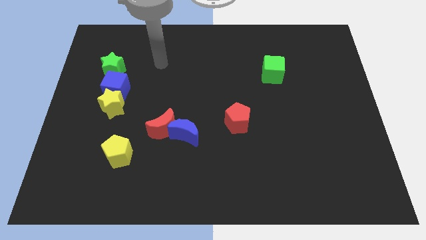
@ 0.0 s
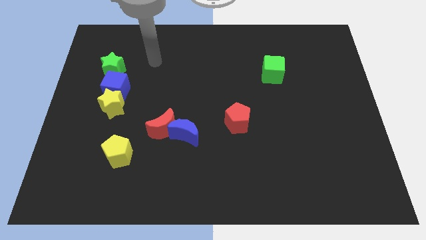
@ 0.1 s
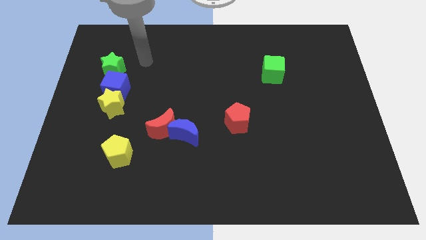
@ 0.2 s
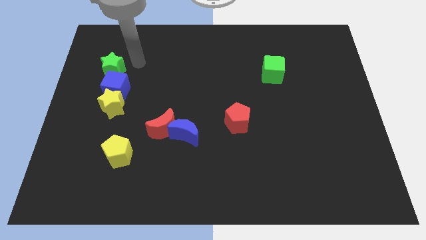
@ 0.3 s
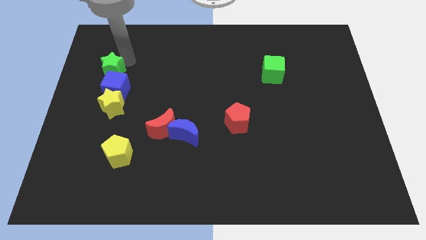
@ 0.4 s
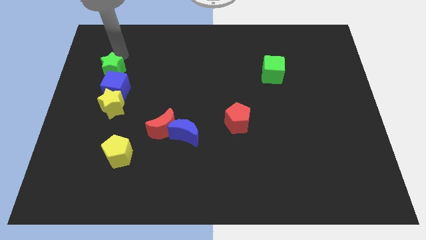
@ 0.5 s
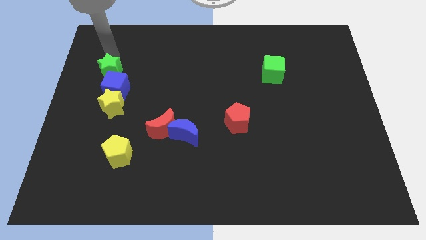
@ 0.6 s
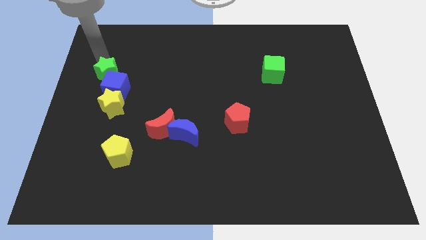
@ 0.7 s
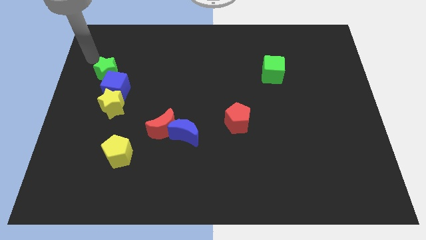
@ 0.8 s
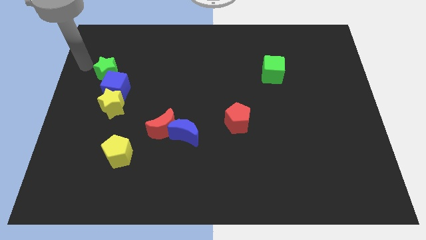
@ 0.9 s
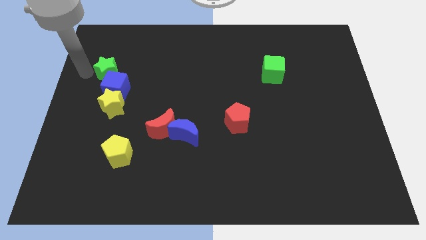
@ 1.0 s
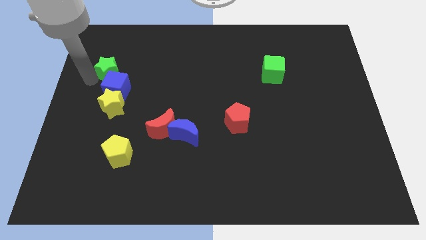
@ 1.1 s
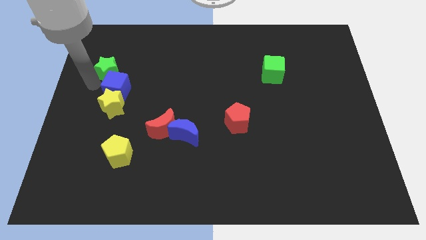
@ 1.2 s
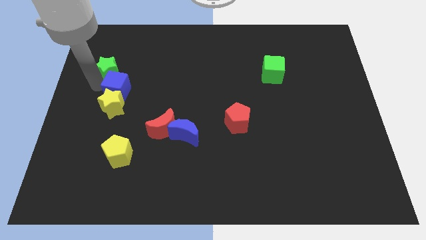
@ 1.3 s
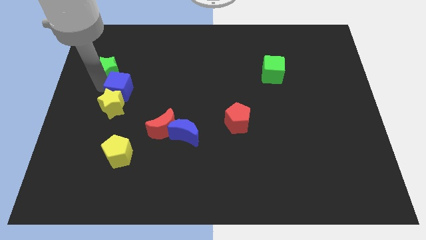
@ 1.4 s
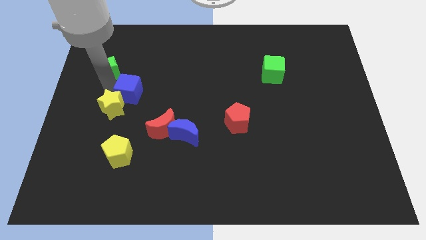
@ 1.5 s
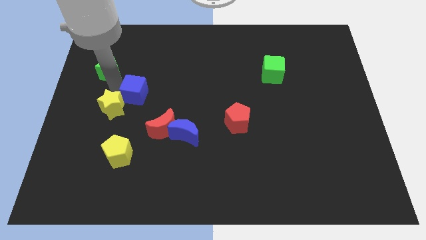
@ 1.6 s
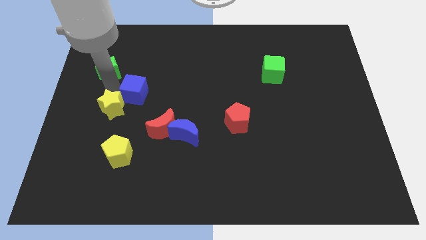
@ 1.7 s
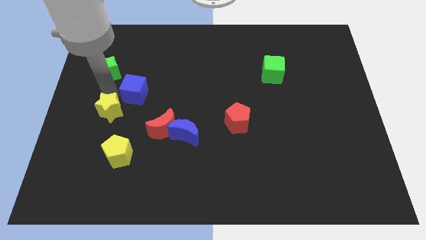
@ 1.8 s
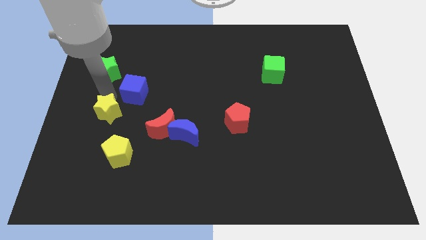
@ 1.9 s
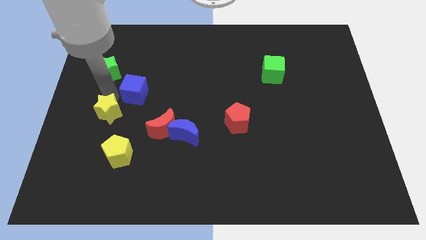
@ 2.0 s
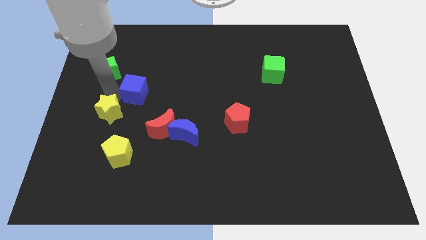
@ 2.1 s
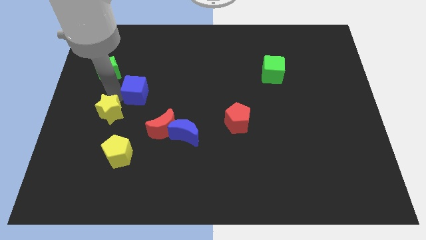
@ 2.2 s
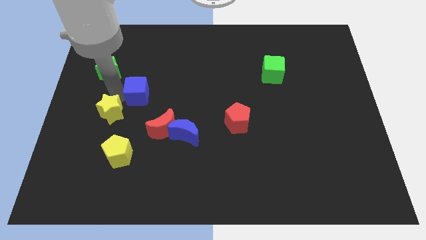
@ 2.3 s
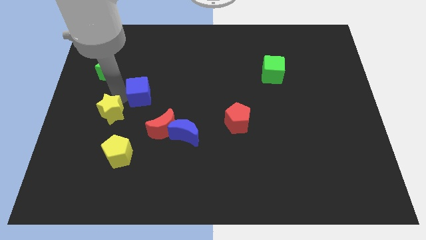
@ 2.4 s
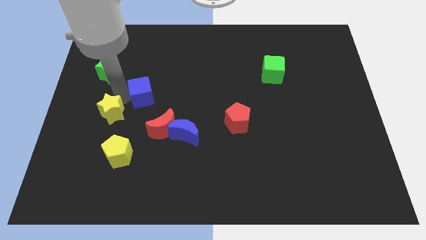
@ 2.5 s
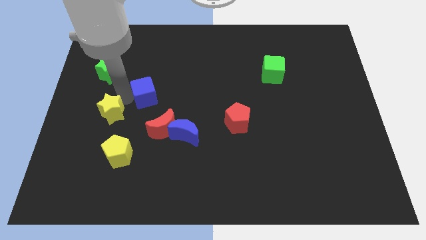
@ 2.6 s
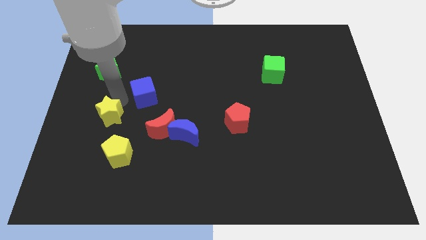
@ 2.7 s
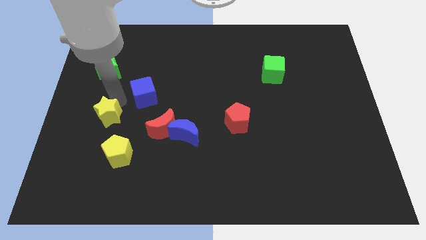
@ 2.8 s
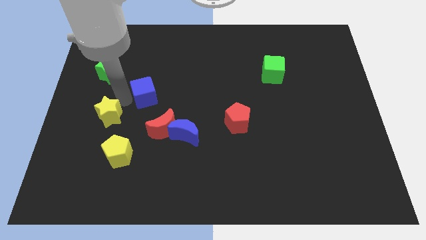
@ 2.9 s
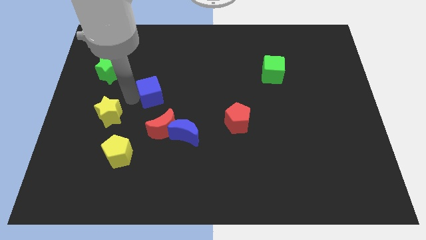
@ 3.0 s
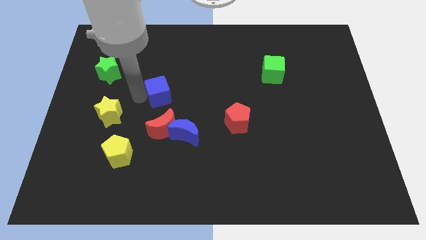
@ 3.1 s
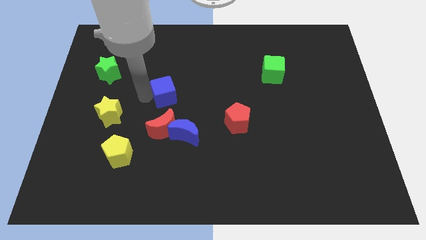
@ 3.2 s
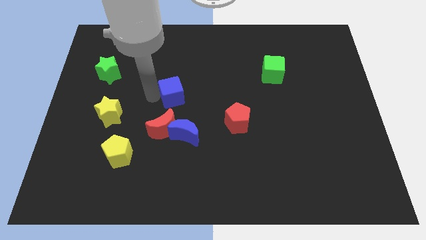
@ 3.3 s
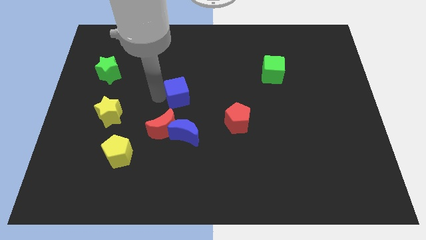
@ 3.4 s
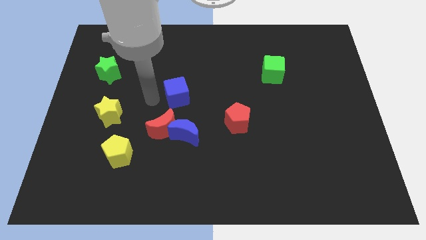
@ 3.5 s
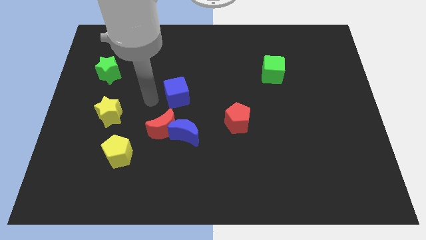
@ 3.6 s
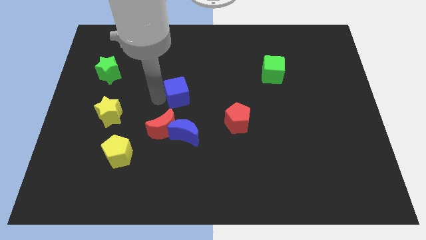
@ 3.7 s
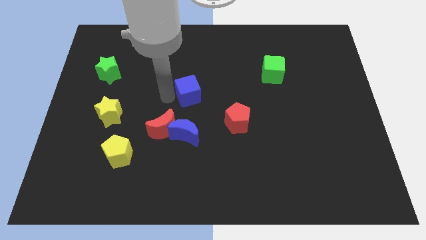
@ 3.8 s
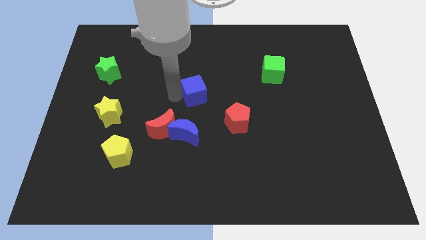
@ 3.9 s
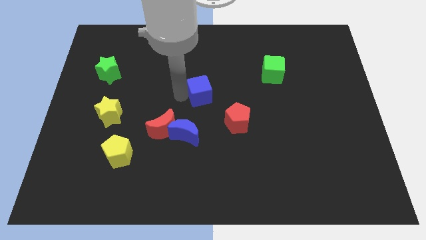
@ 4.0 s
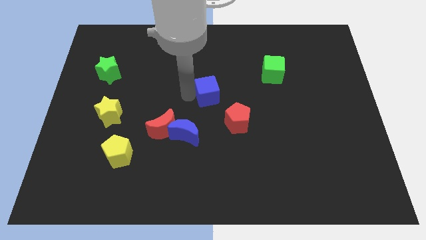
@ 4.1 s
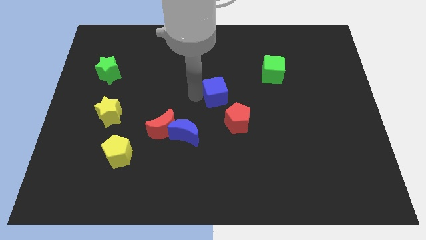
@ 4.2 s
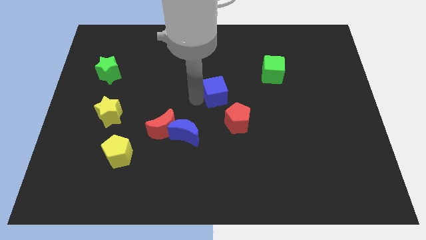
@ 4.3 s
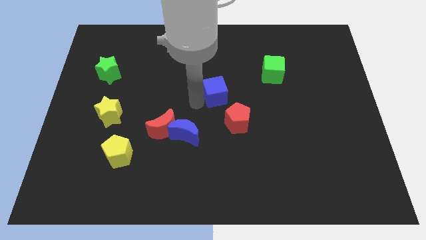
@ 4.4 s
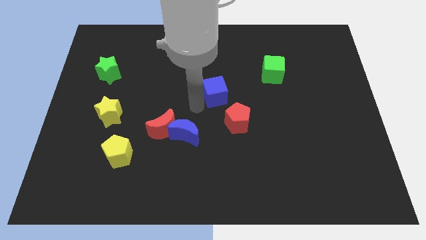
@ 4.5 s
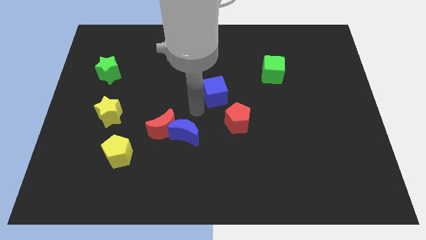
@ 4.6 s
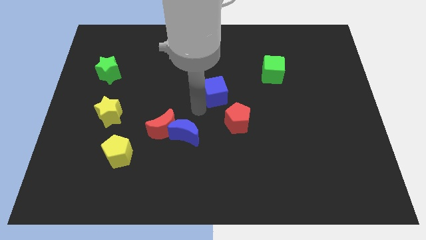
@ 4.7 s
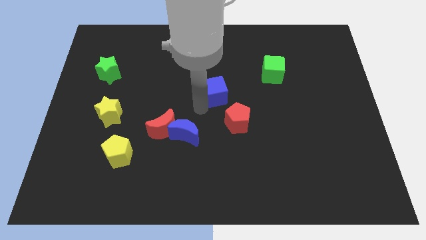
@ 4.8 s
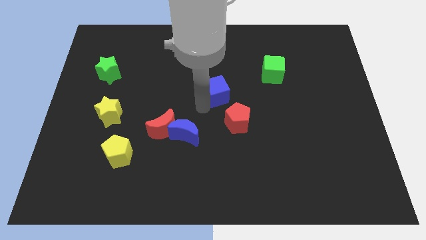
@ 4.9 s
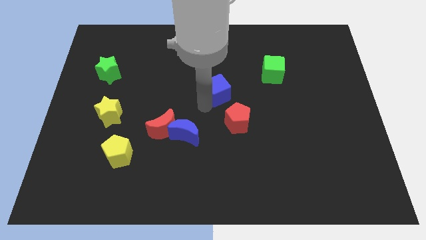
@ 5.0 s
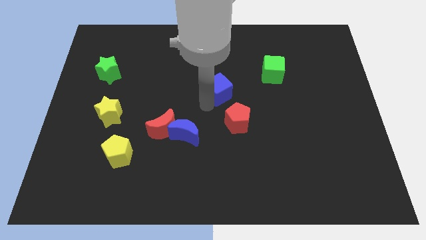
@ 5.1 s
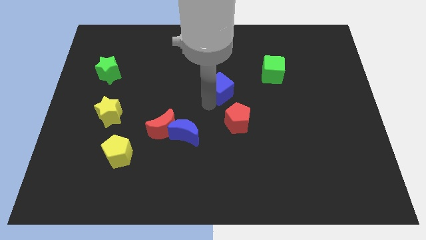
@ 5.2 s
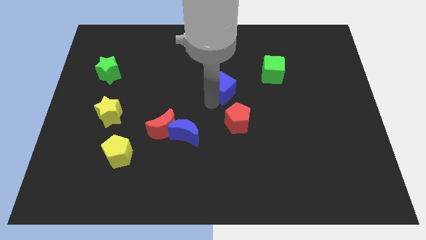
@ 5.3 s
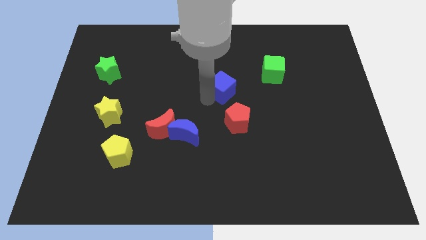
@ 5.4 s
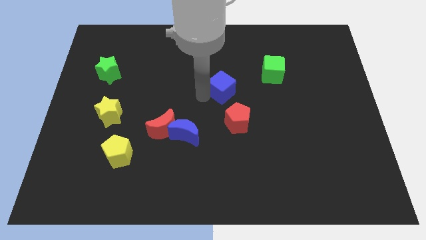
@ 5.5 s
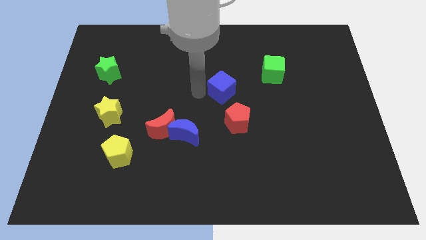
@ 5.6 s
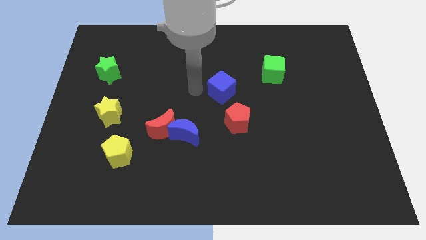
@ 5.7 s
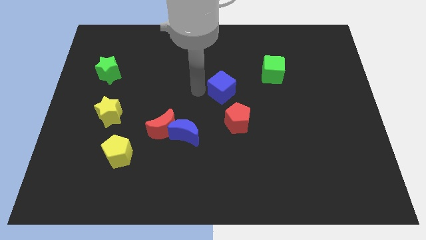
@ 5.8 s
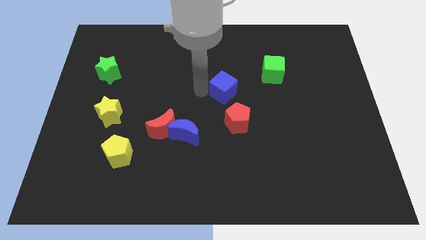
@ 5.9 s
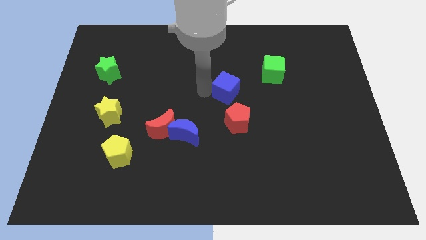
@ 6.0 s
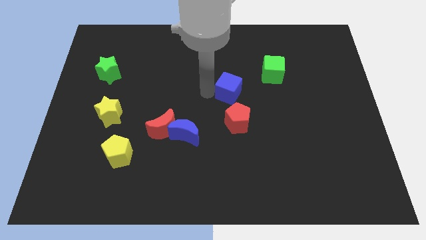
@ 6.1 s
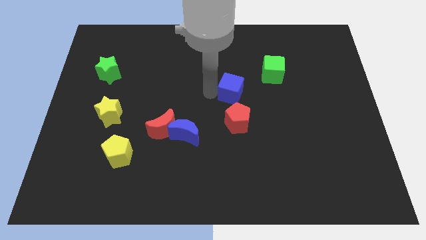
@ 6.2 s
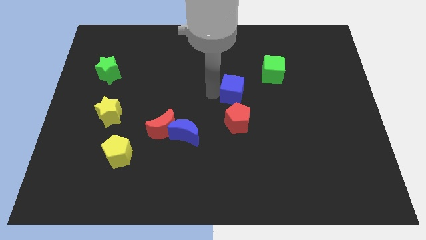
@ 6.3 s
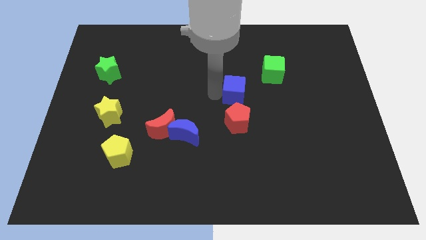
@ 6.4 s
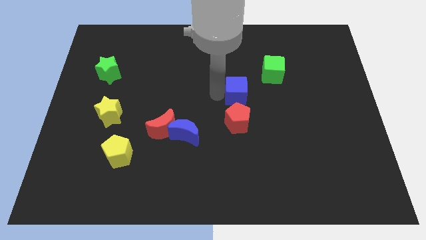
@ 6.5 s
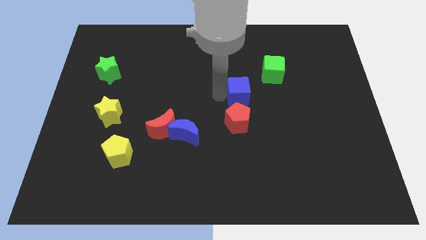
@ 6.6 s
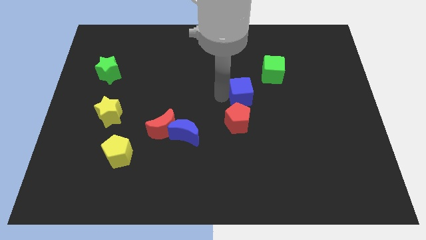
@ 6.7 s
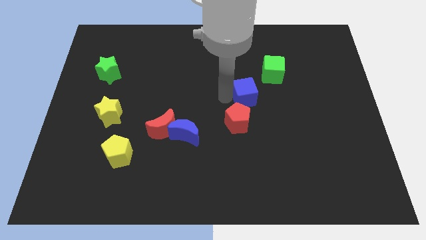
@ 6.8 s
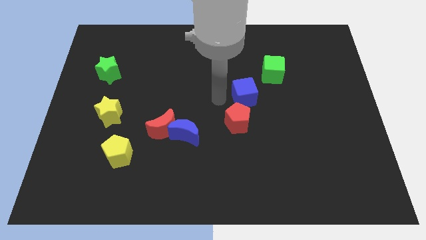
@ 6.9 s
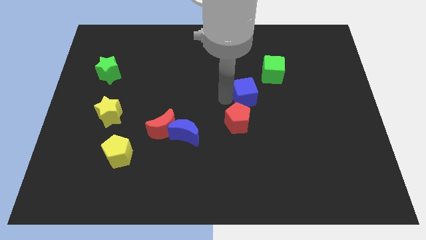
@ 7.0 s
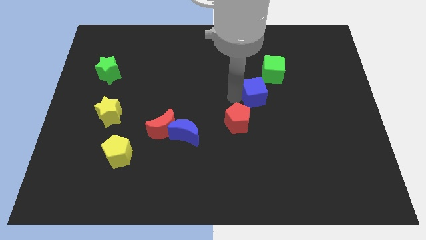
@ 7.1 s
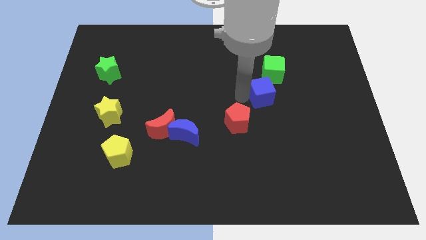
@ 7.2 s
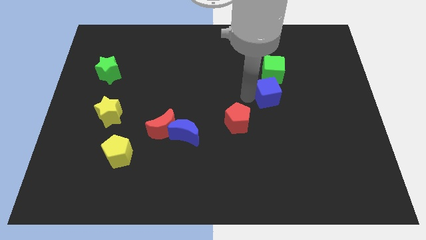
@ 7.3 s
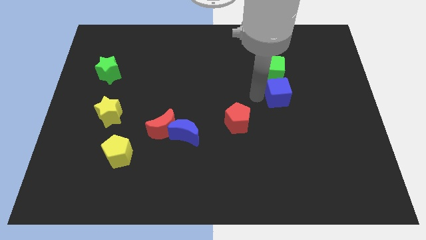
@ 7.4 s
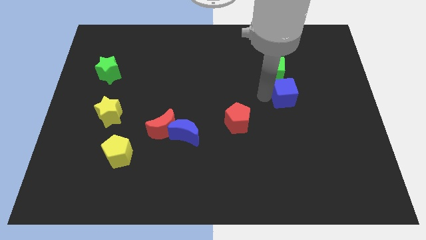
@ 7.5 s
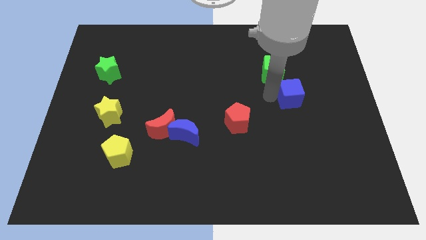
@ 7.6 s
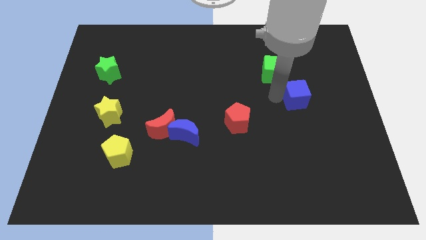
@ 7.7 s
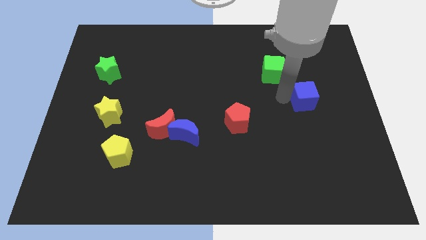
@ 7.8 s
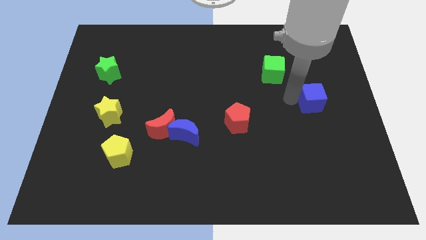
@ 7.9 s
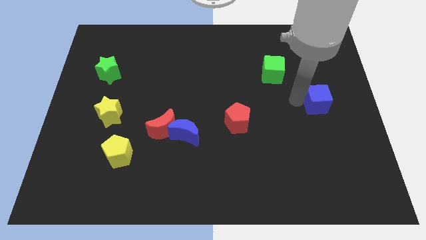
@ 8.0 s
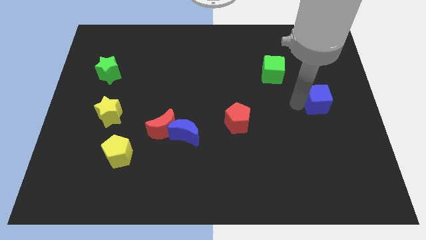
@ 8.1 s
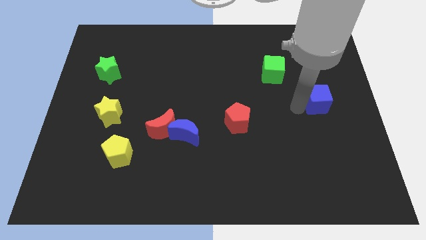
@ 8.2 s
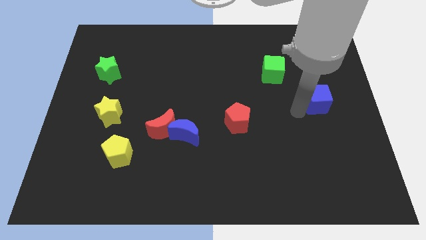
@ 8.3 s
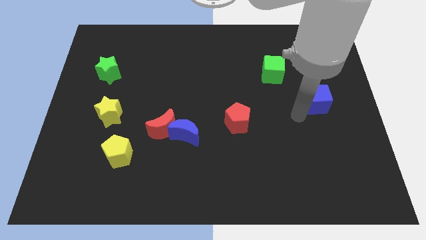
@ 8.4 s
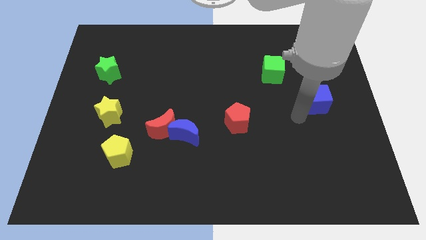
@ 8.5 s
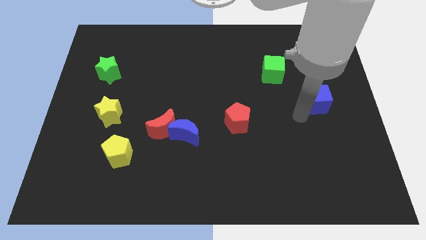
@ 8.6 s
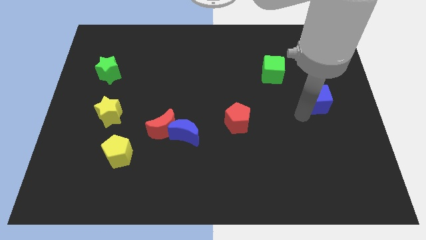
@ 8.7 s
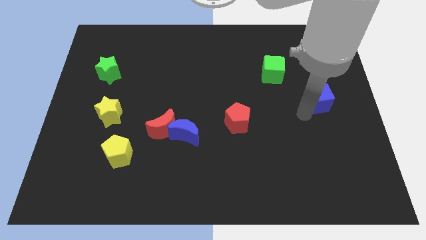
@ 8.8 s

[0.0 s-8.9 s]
move the blue cube to the center right
